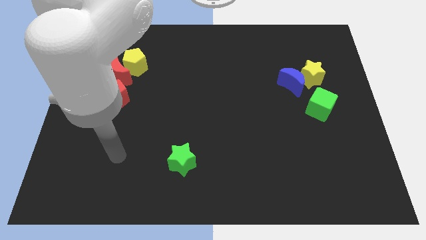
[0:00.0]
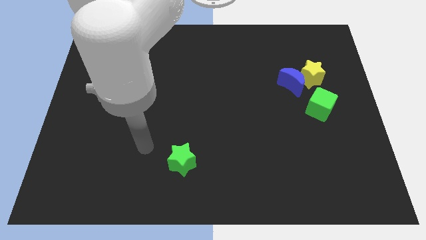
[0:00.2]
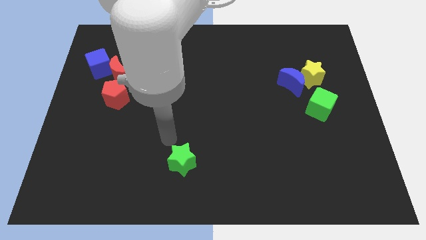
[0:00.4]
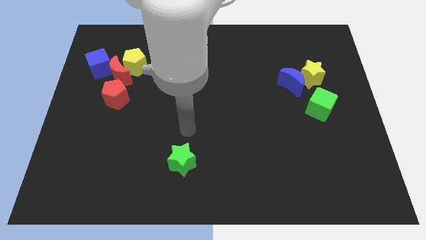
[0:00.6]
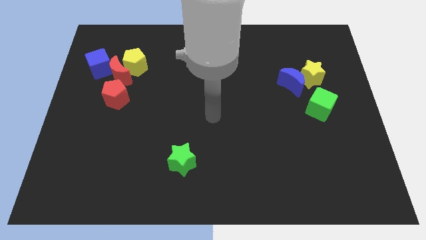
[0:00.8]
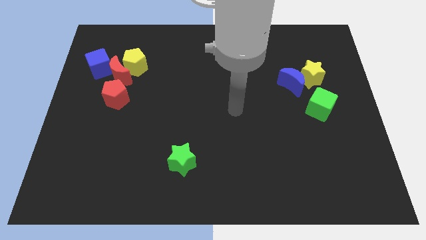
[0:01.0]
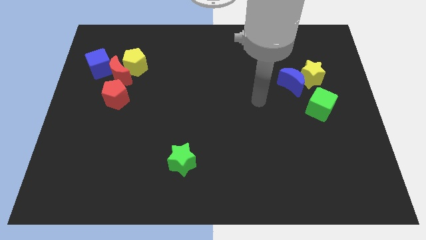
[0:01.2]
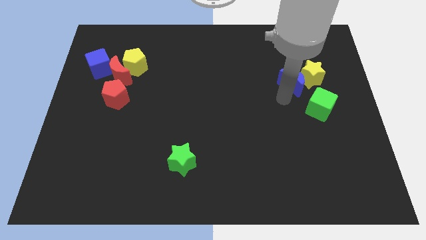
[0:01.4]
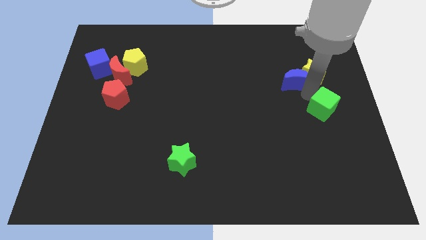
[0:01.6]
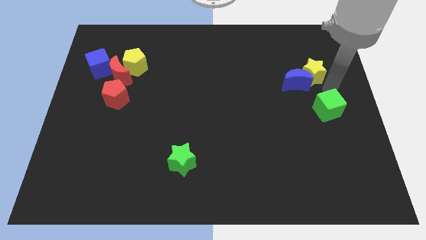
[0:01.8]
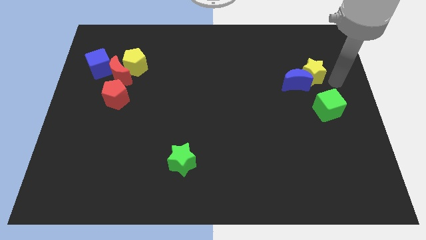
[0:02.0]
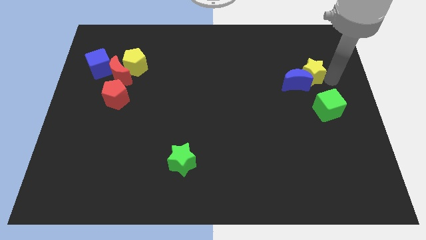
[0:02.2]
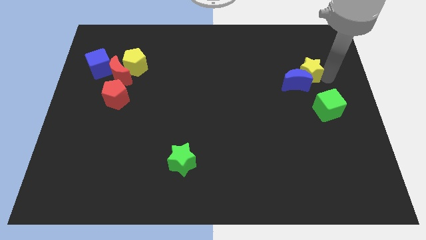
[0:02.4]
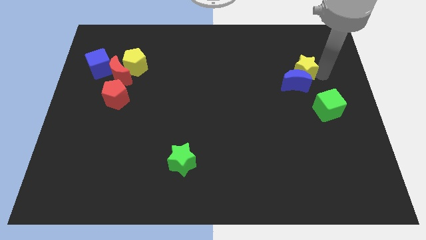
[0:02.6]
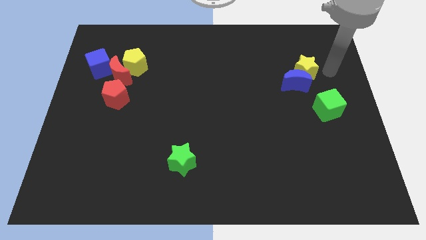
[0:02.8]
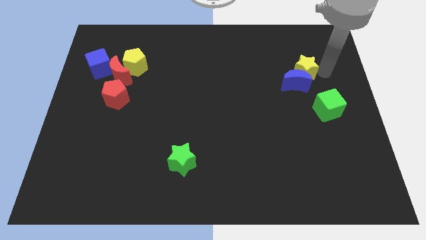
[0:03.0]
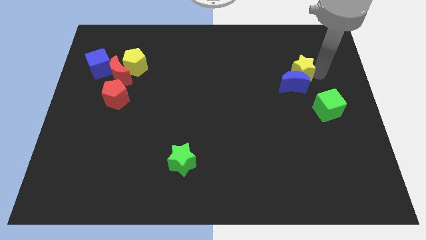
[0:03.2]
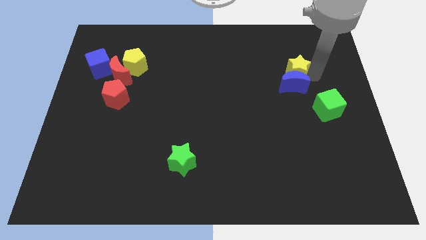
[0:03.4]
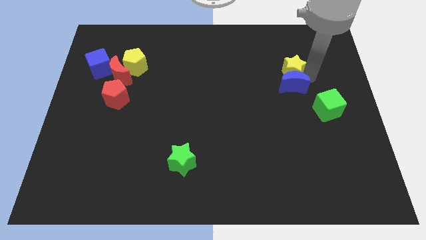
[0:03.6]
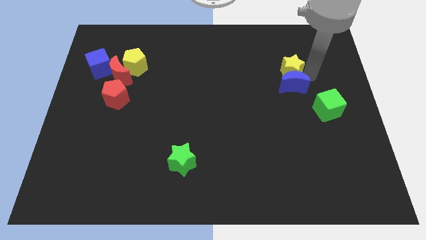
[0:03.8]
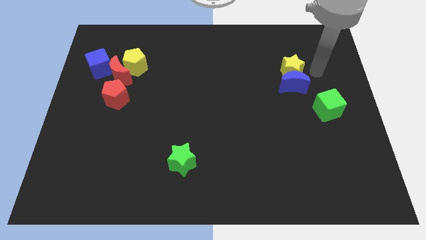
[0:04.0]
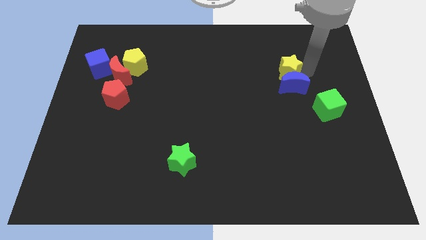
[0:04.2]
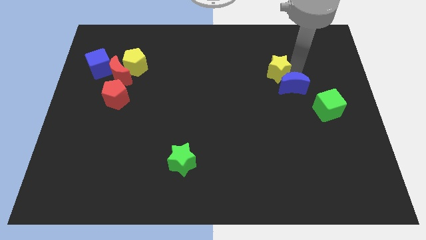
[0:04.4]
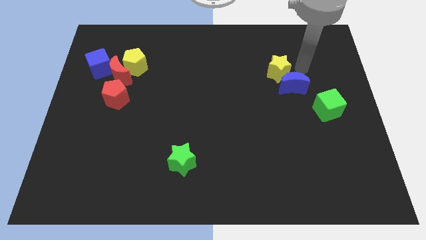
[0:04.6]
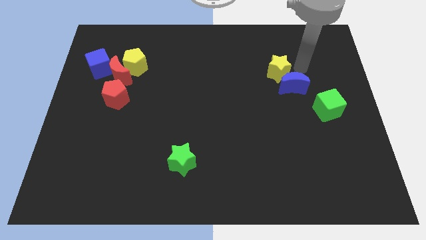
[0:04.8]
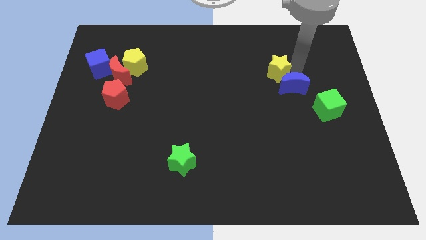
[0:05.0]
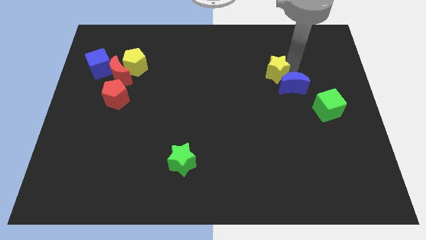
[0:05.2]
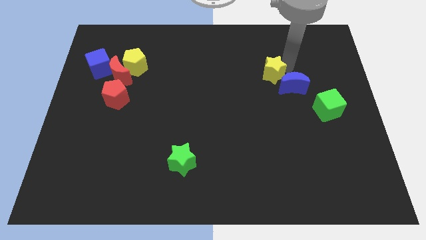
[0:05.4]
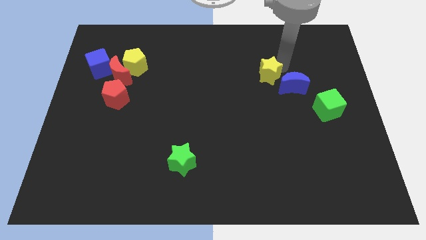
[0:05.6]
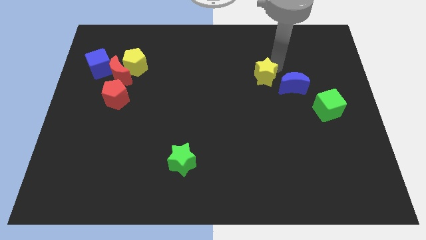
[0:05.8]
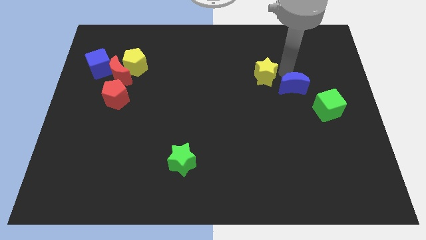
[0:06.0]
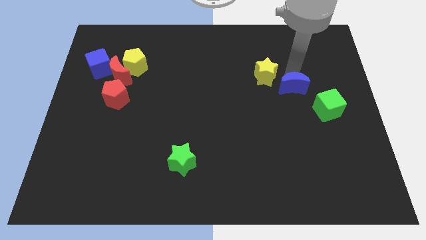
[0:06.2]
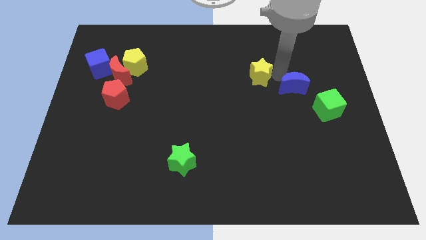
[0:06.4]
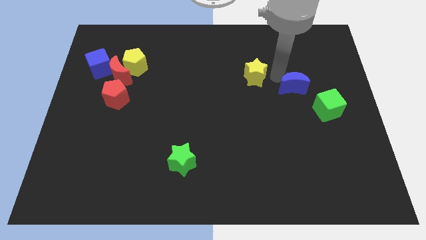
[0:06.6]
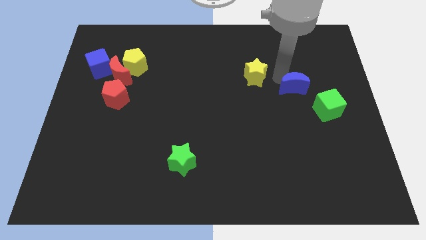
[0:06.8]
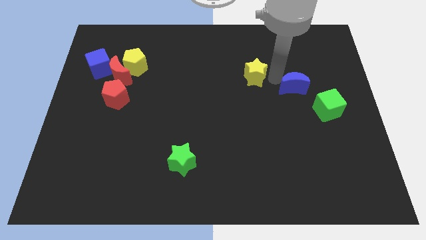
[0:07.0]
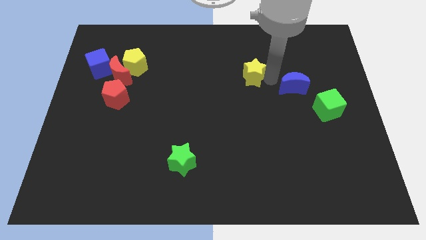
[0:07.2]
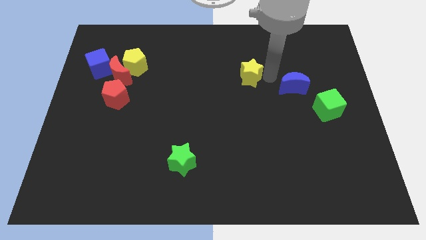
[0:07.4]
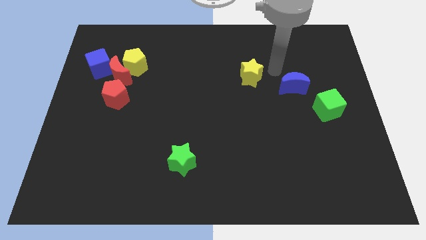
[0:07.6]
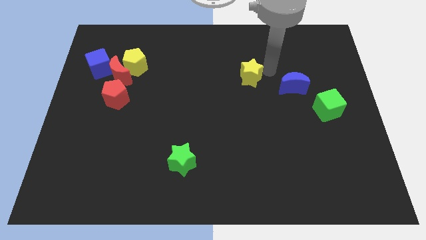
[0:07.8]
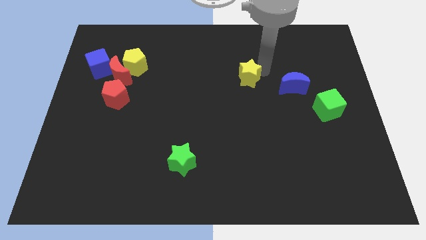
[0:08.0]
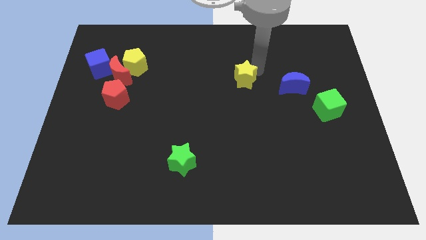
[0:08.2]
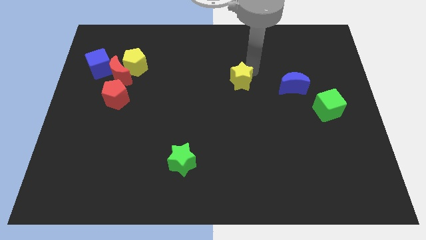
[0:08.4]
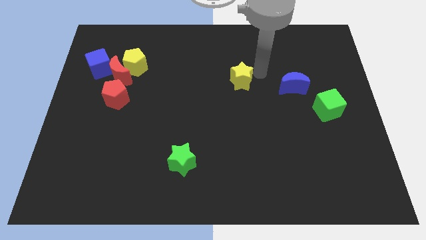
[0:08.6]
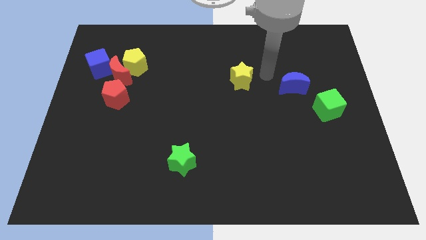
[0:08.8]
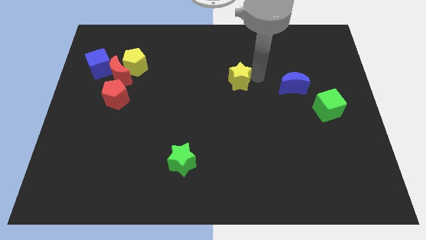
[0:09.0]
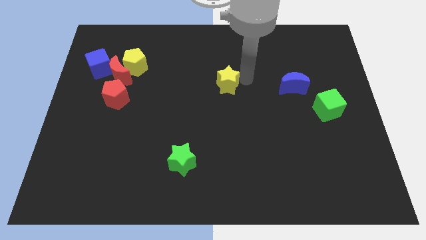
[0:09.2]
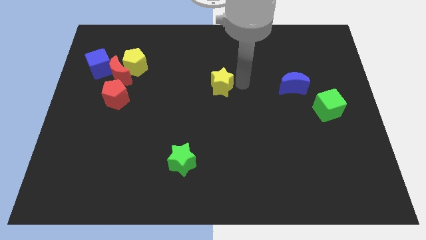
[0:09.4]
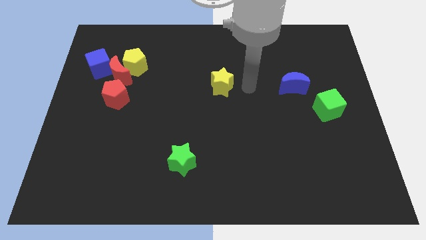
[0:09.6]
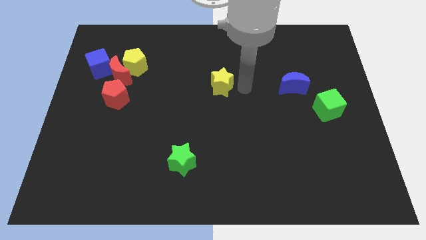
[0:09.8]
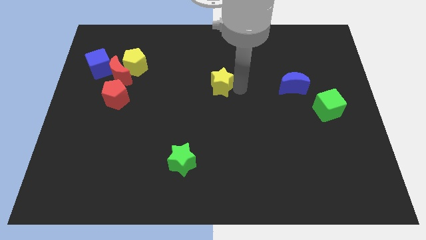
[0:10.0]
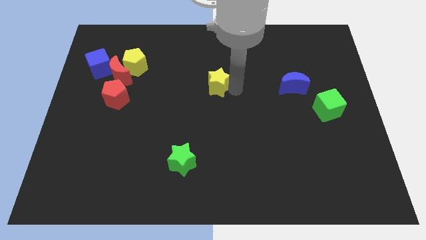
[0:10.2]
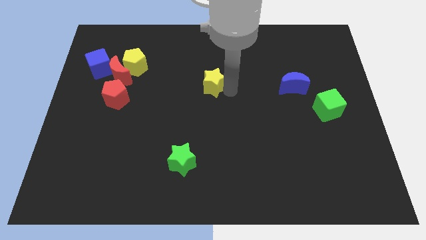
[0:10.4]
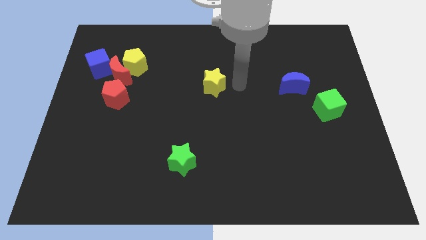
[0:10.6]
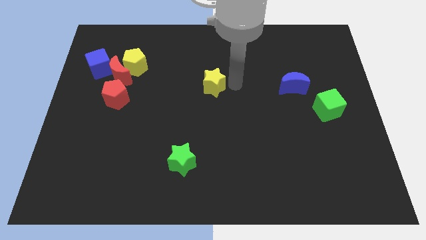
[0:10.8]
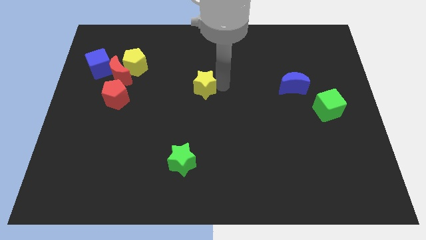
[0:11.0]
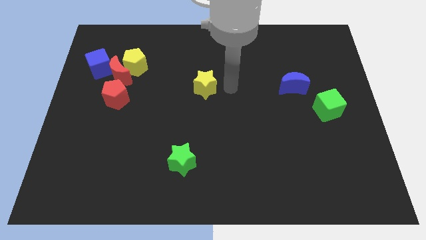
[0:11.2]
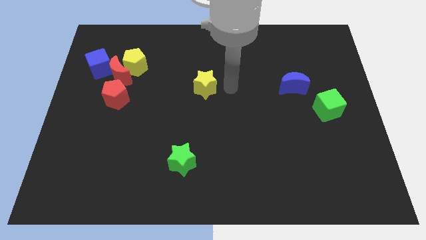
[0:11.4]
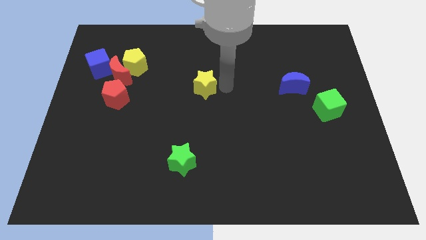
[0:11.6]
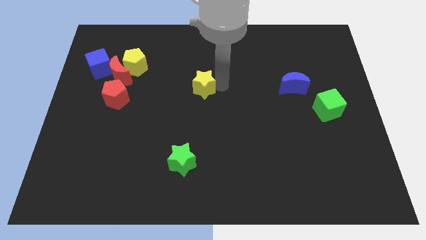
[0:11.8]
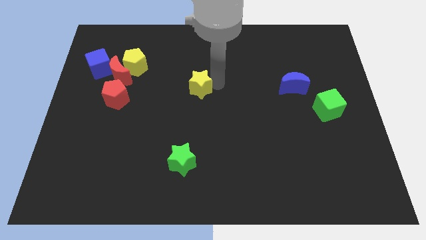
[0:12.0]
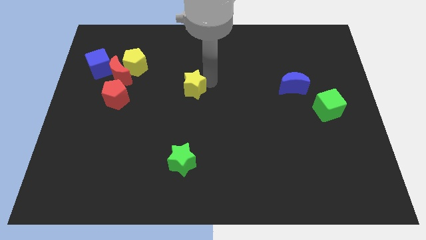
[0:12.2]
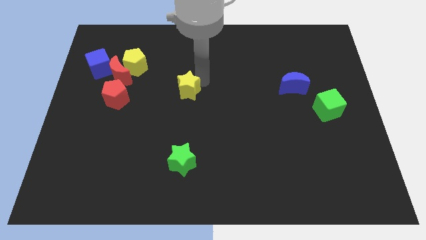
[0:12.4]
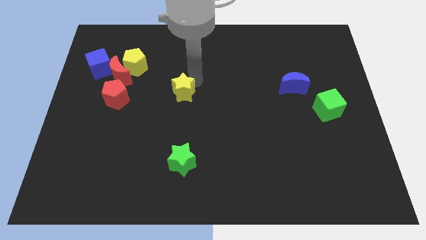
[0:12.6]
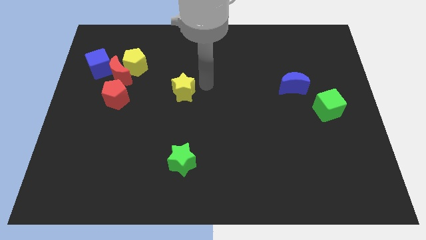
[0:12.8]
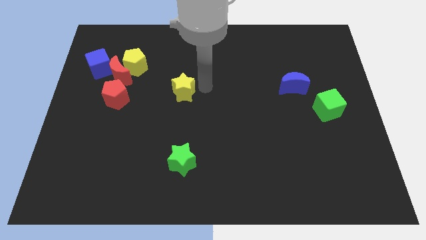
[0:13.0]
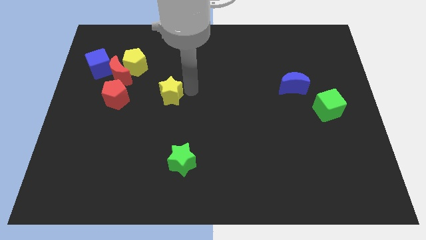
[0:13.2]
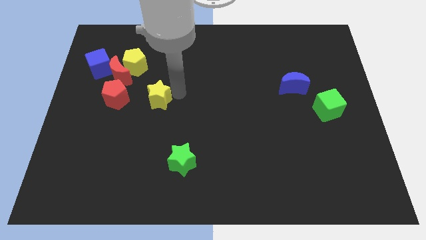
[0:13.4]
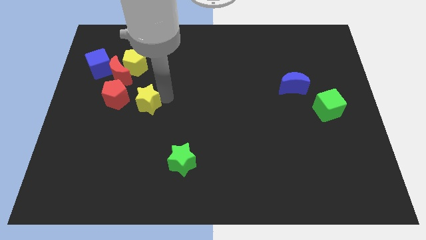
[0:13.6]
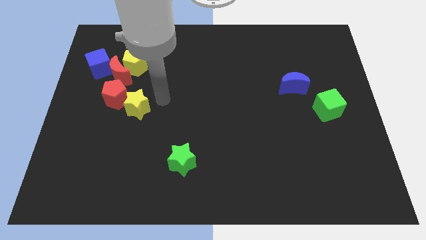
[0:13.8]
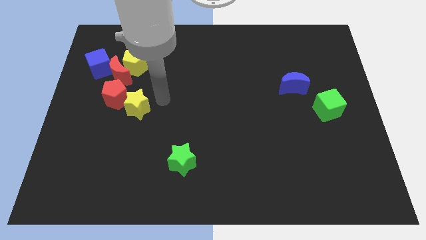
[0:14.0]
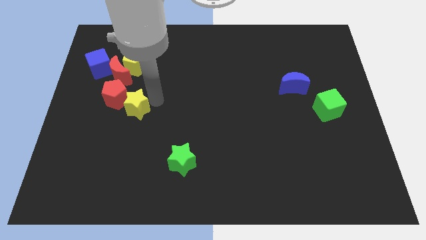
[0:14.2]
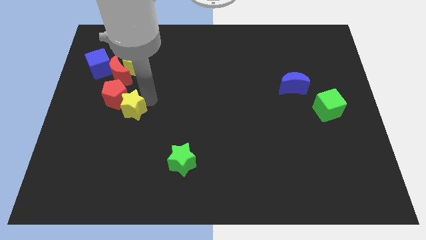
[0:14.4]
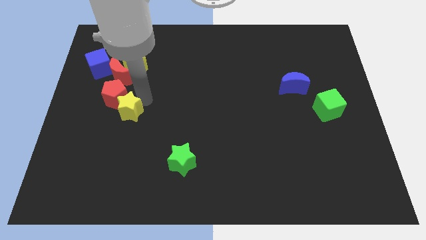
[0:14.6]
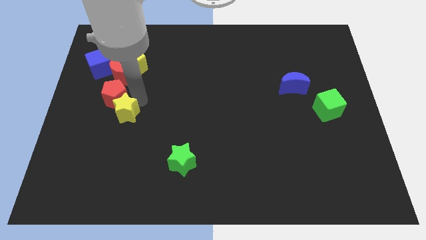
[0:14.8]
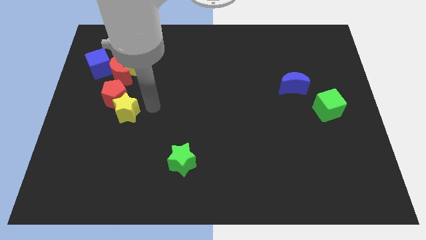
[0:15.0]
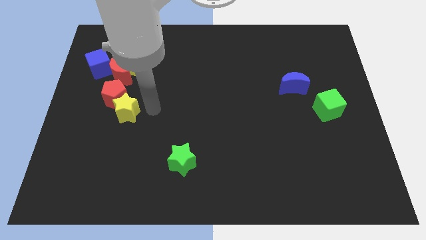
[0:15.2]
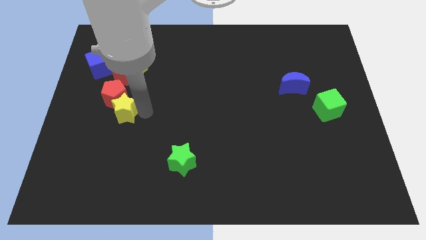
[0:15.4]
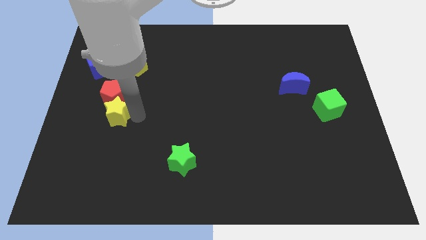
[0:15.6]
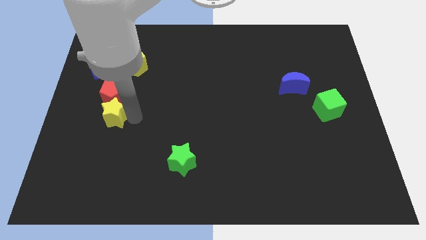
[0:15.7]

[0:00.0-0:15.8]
move the yellow star to the bottom left side of the red pentagon
